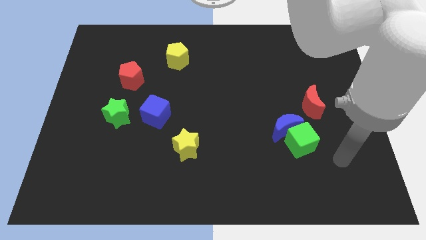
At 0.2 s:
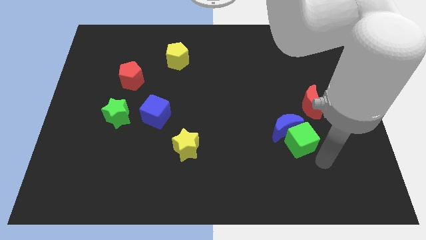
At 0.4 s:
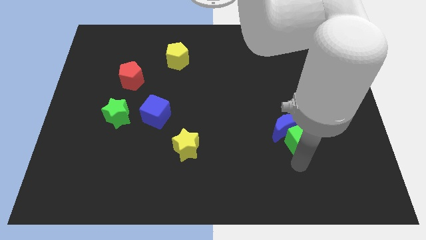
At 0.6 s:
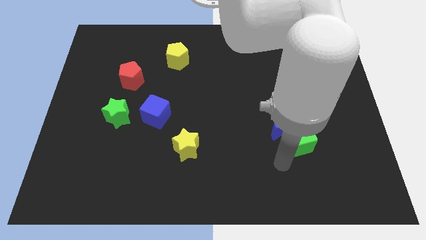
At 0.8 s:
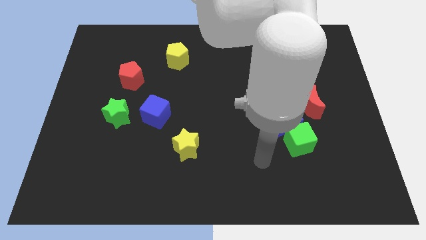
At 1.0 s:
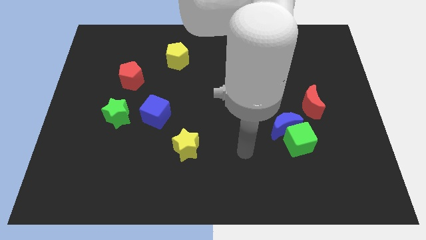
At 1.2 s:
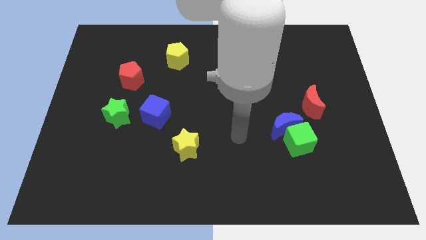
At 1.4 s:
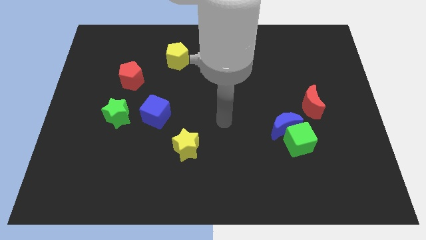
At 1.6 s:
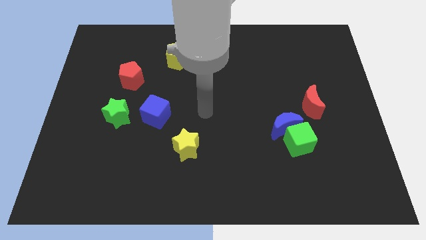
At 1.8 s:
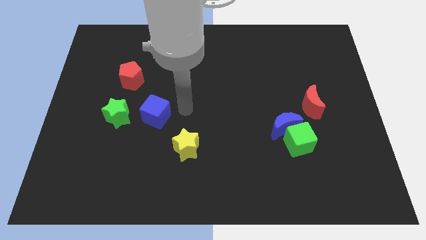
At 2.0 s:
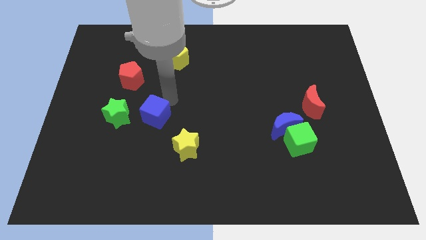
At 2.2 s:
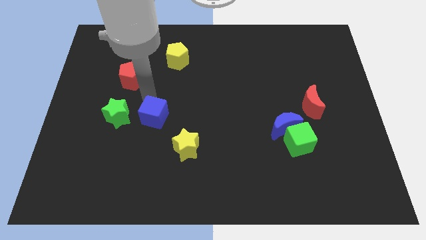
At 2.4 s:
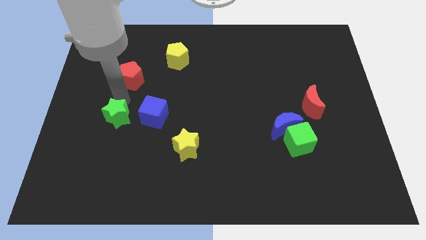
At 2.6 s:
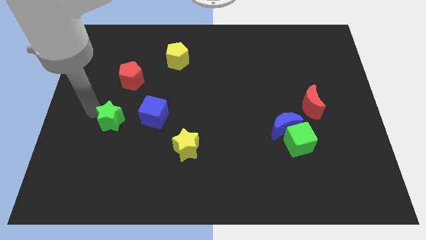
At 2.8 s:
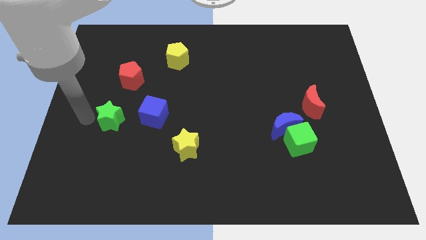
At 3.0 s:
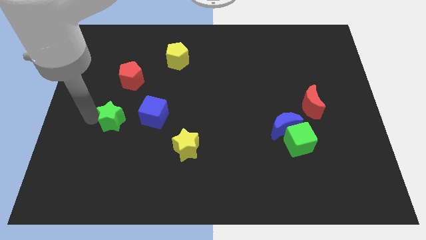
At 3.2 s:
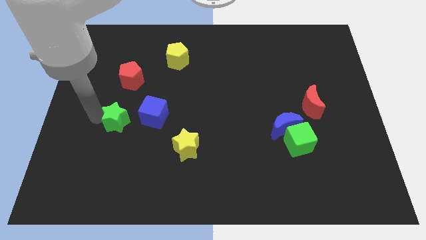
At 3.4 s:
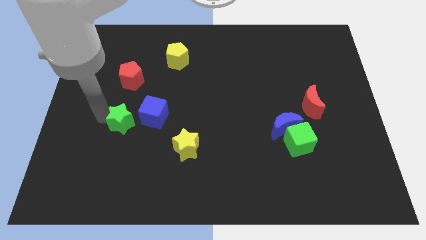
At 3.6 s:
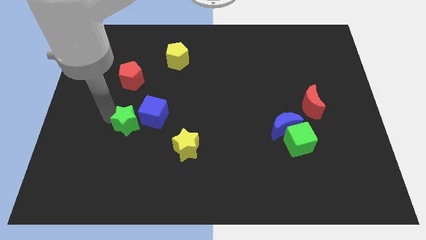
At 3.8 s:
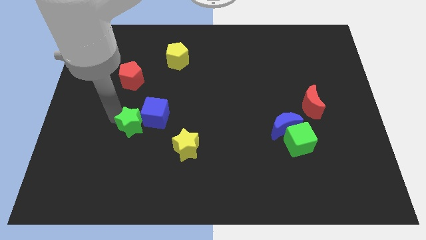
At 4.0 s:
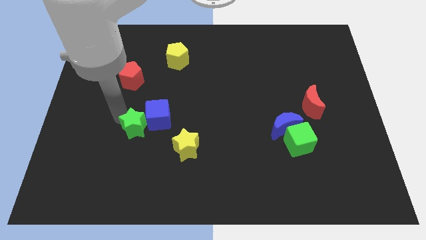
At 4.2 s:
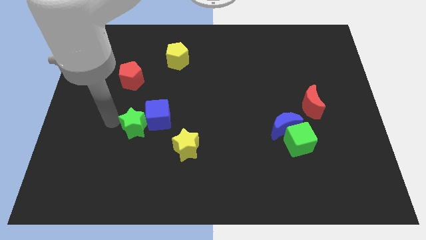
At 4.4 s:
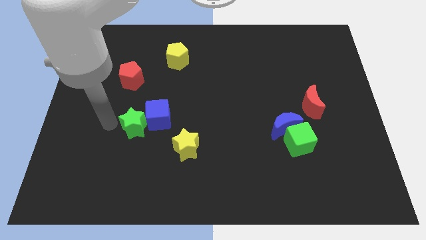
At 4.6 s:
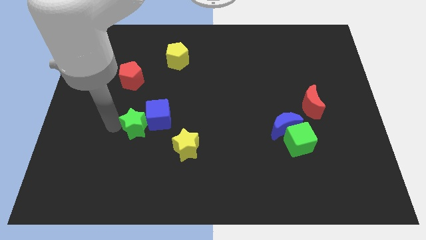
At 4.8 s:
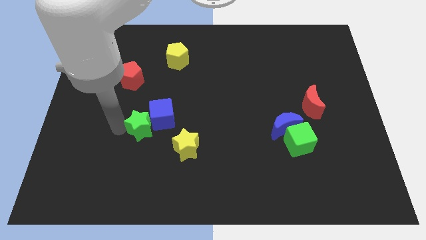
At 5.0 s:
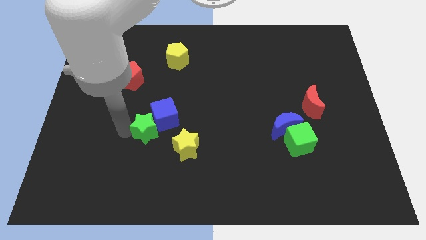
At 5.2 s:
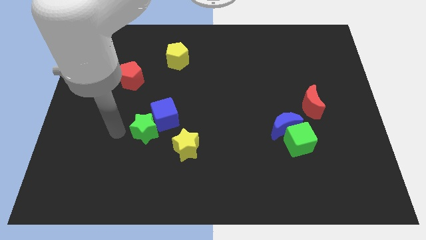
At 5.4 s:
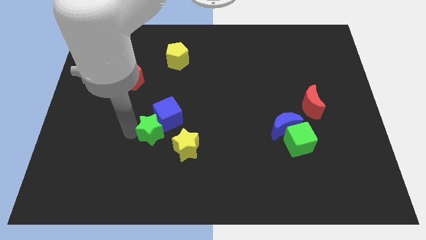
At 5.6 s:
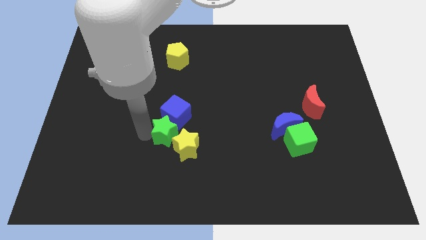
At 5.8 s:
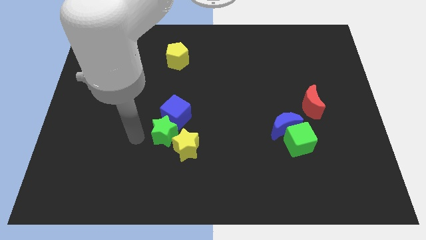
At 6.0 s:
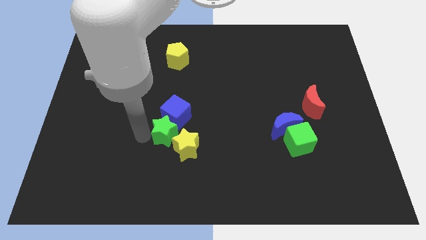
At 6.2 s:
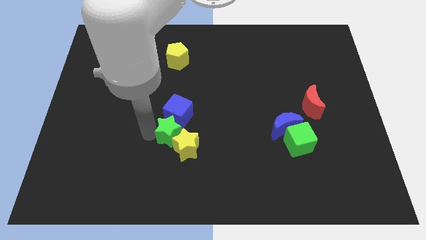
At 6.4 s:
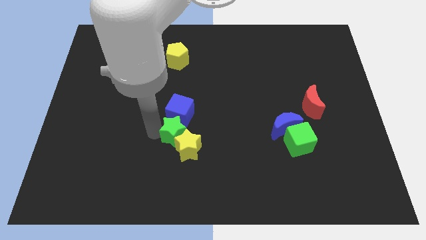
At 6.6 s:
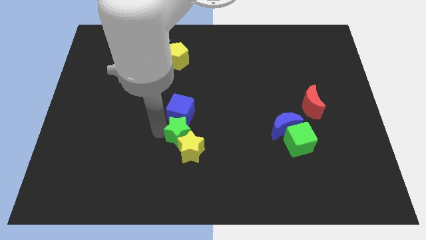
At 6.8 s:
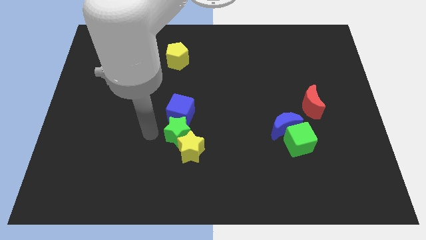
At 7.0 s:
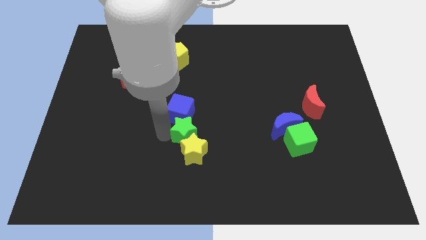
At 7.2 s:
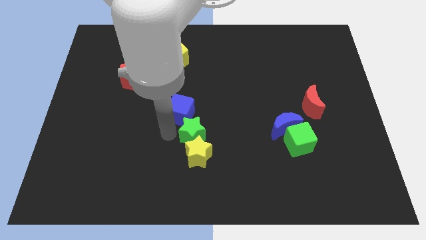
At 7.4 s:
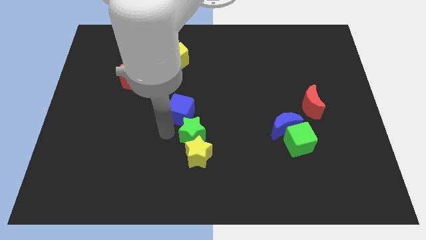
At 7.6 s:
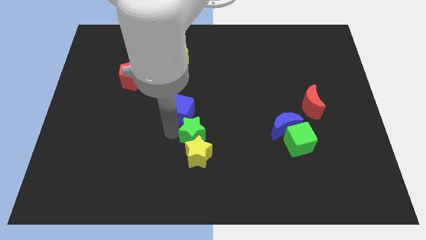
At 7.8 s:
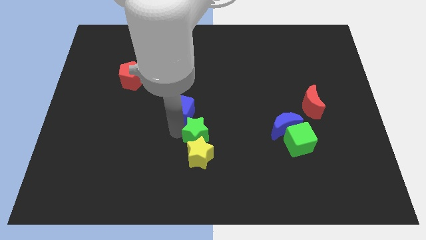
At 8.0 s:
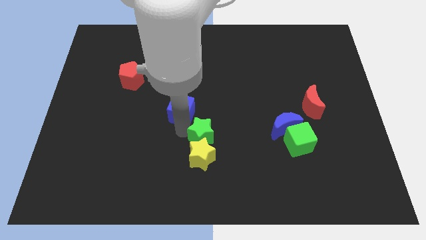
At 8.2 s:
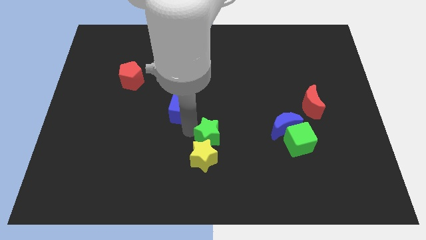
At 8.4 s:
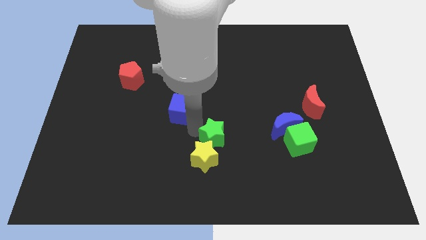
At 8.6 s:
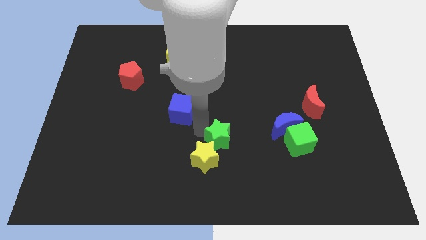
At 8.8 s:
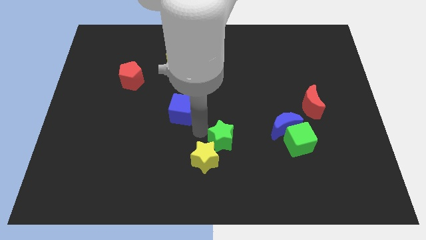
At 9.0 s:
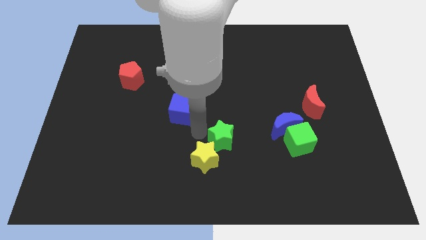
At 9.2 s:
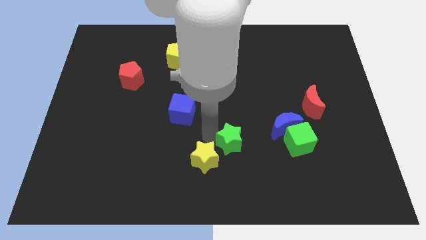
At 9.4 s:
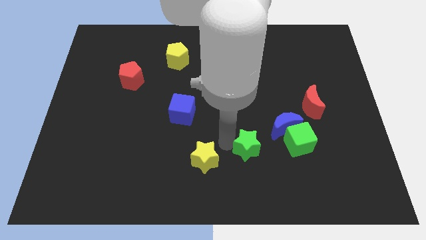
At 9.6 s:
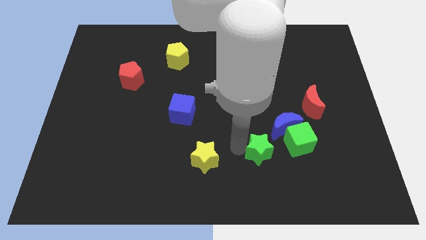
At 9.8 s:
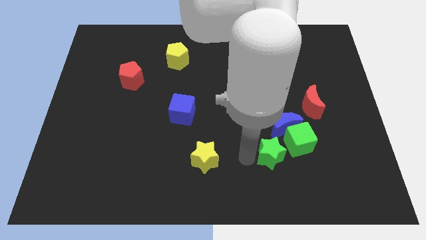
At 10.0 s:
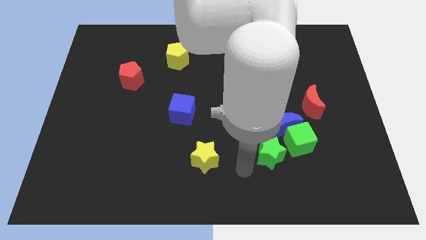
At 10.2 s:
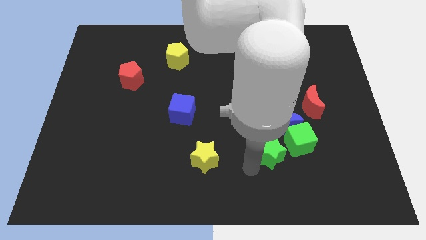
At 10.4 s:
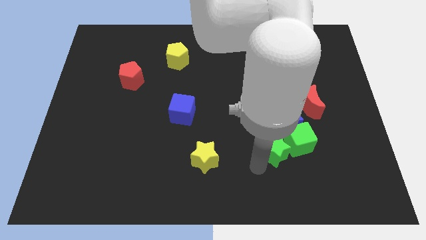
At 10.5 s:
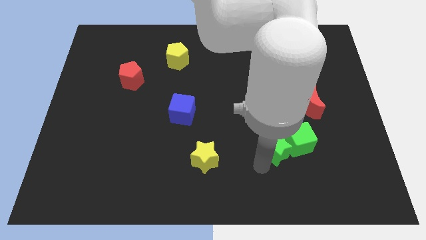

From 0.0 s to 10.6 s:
push the green star close to the green cube

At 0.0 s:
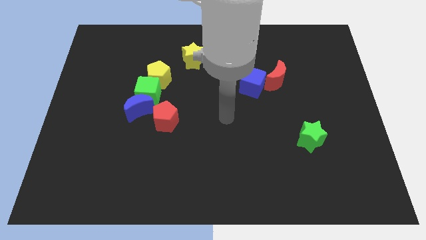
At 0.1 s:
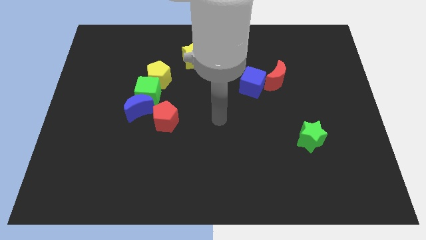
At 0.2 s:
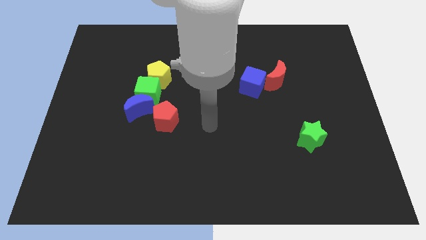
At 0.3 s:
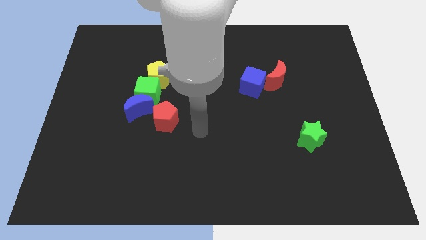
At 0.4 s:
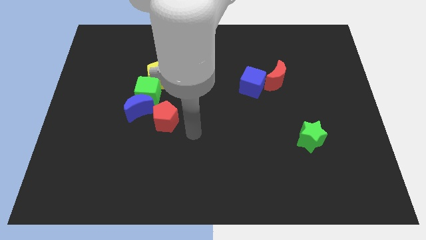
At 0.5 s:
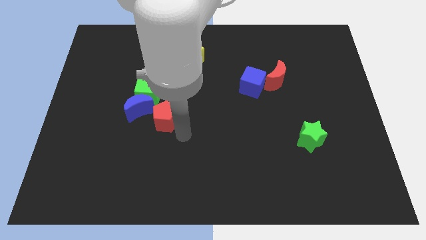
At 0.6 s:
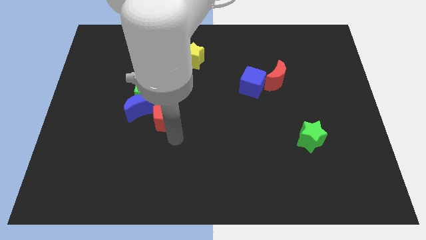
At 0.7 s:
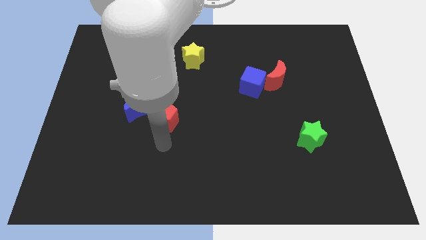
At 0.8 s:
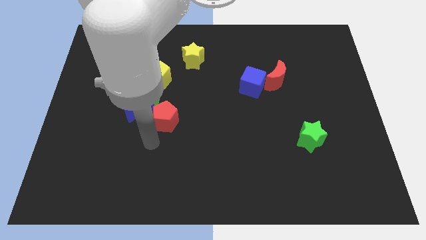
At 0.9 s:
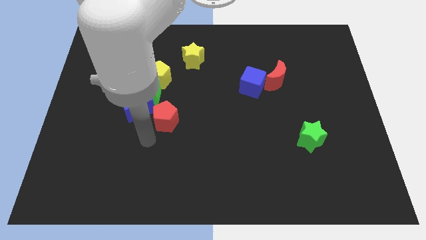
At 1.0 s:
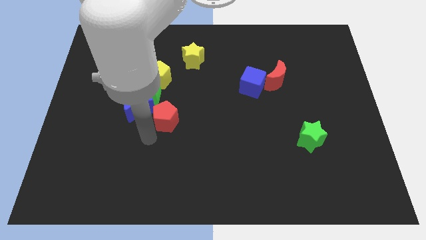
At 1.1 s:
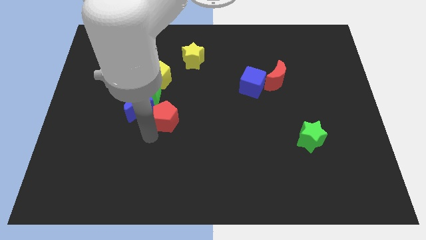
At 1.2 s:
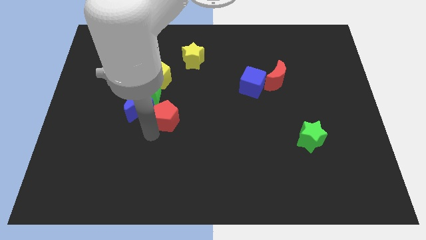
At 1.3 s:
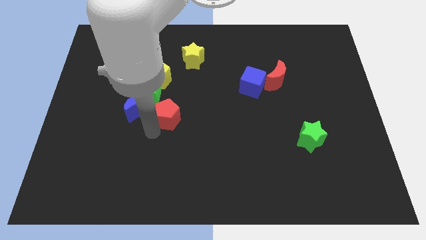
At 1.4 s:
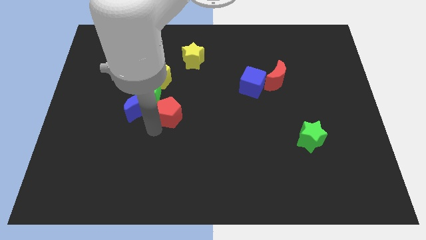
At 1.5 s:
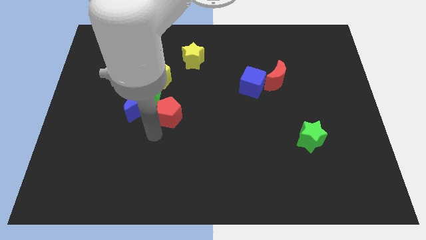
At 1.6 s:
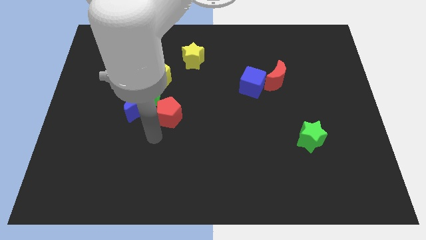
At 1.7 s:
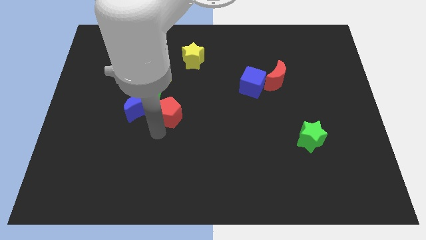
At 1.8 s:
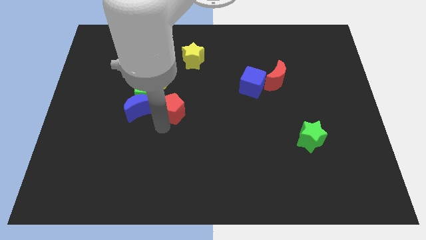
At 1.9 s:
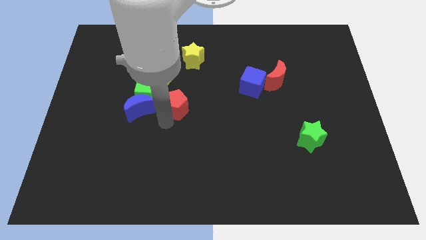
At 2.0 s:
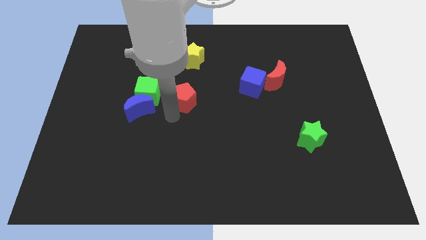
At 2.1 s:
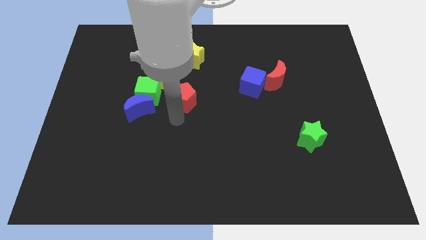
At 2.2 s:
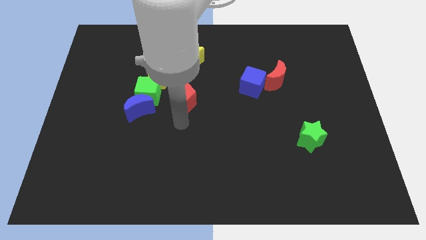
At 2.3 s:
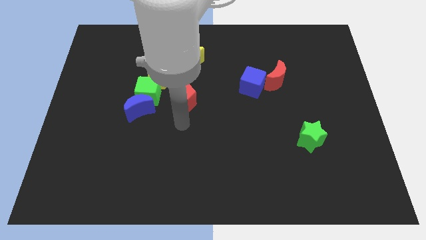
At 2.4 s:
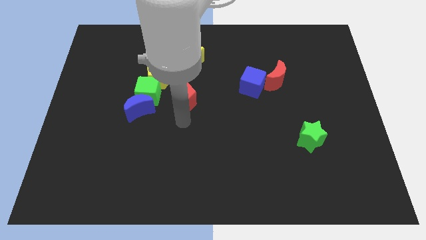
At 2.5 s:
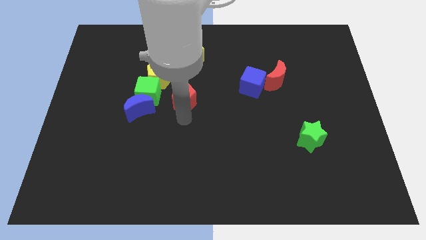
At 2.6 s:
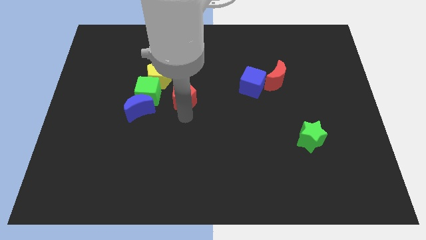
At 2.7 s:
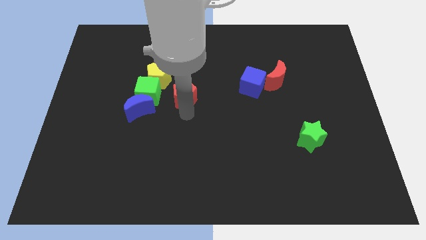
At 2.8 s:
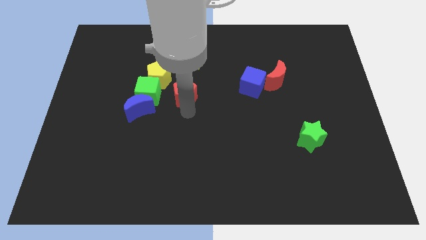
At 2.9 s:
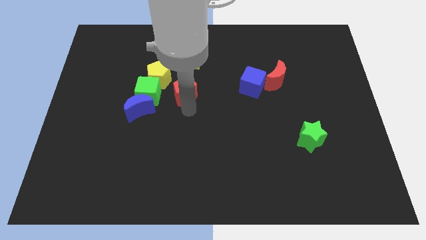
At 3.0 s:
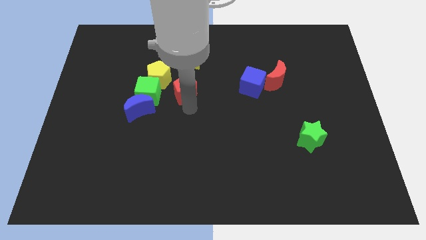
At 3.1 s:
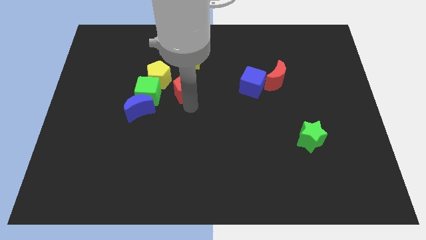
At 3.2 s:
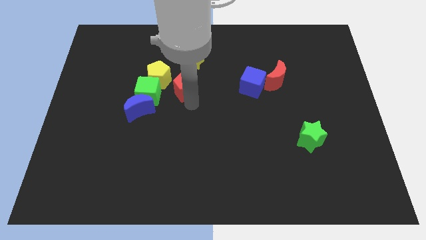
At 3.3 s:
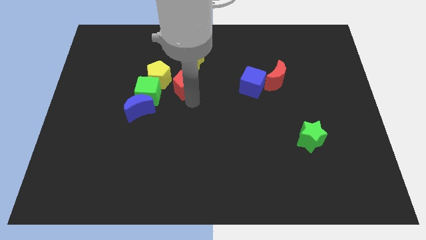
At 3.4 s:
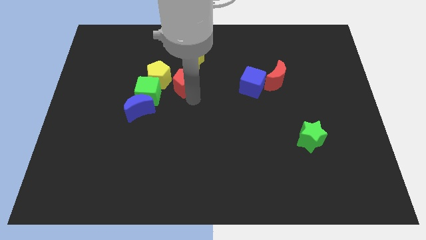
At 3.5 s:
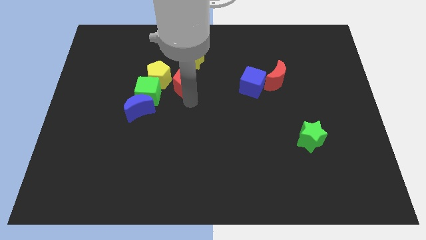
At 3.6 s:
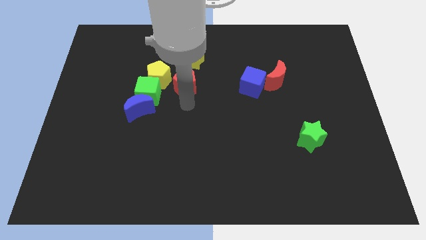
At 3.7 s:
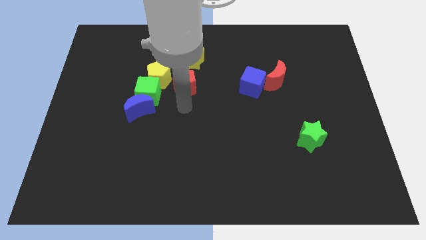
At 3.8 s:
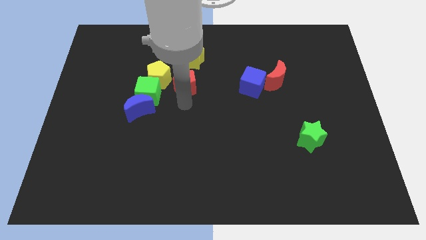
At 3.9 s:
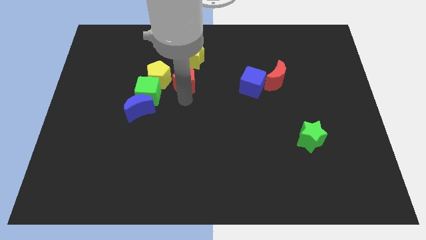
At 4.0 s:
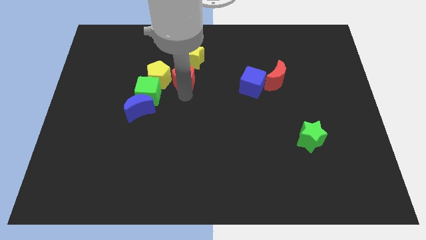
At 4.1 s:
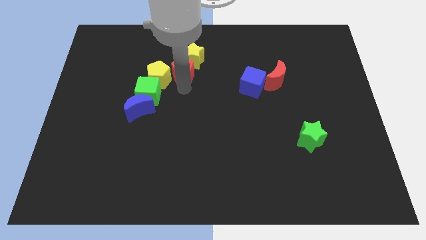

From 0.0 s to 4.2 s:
put the red pentagon close to the yellow star
